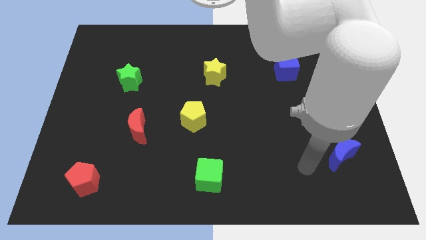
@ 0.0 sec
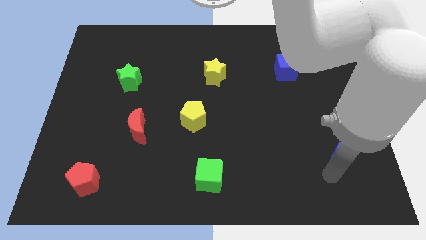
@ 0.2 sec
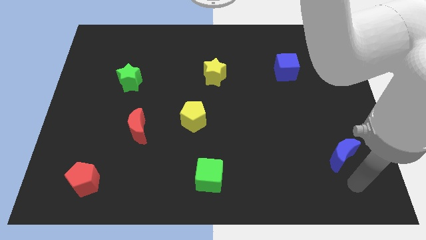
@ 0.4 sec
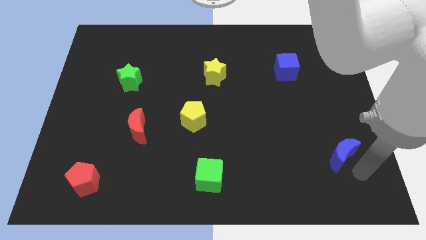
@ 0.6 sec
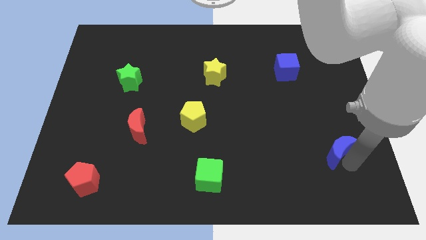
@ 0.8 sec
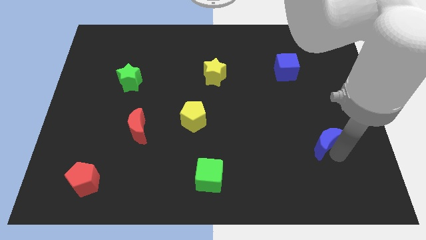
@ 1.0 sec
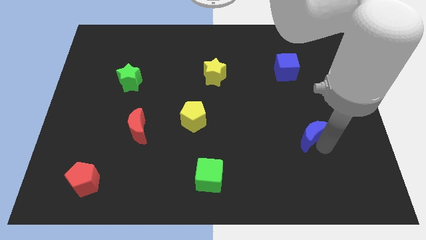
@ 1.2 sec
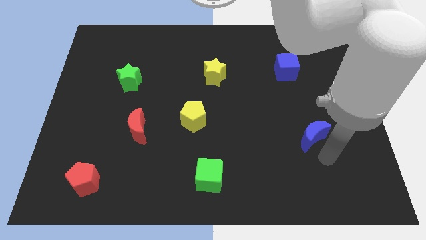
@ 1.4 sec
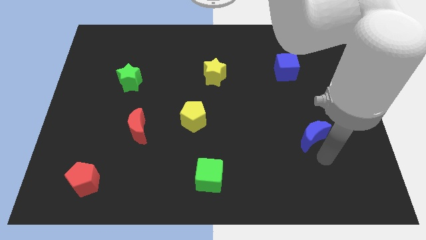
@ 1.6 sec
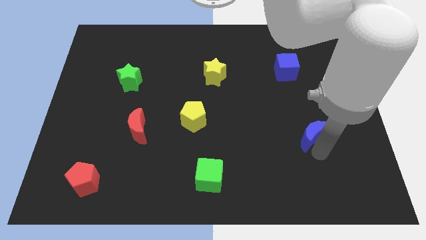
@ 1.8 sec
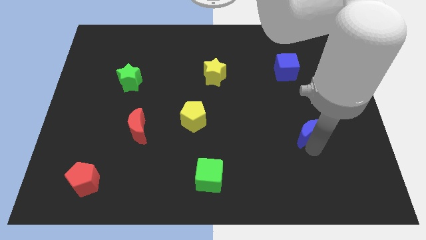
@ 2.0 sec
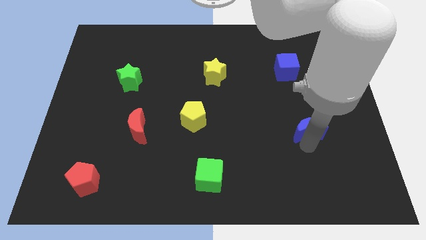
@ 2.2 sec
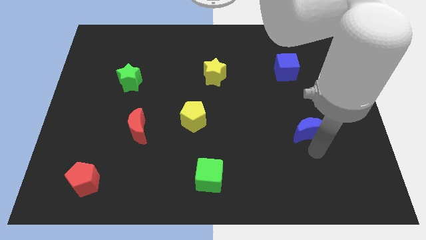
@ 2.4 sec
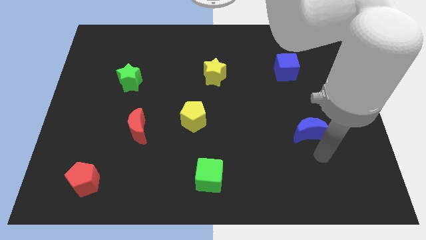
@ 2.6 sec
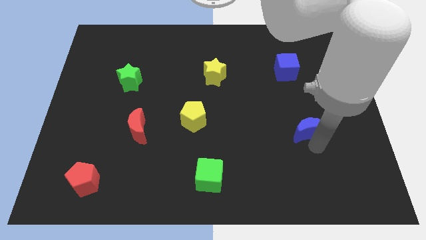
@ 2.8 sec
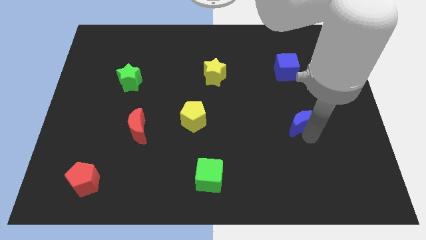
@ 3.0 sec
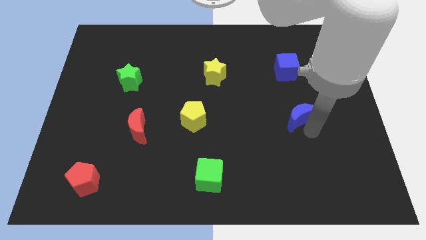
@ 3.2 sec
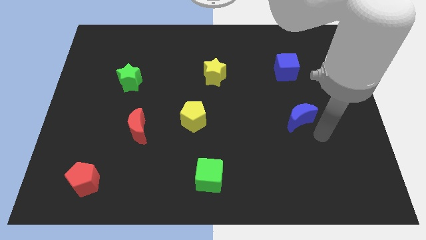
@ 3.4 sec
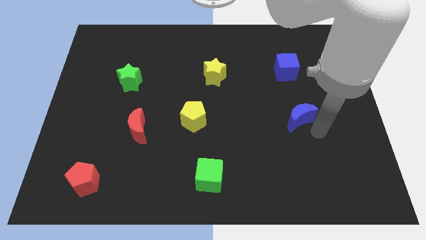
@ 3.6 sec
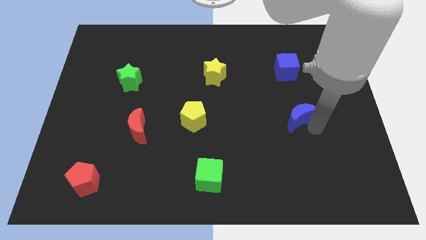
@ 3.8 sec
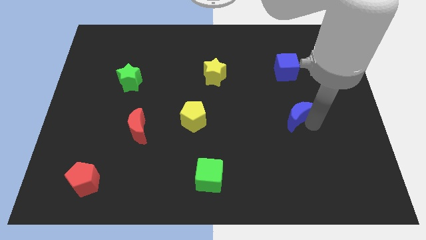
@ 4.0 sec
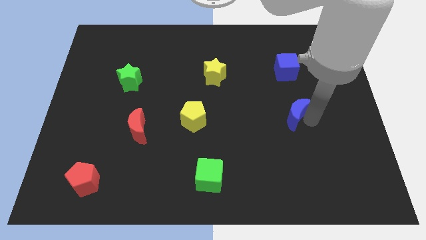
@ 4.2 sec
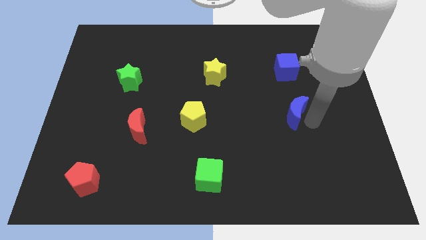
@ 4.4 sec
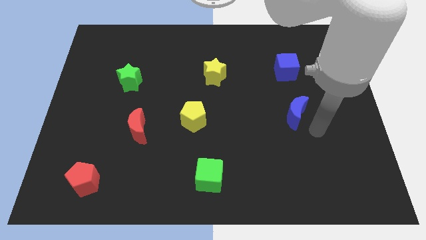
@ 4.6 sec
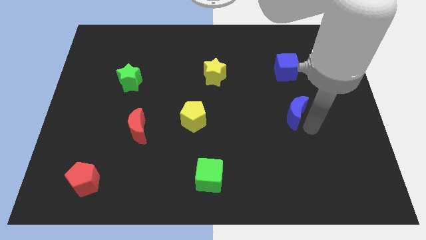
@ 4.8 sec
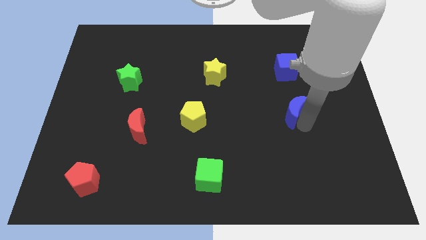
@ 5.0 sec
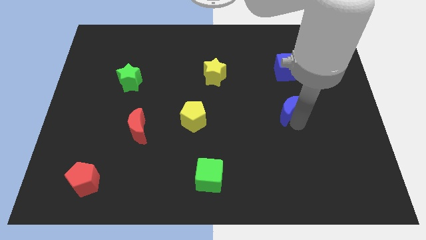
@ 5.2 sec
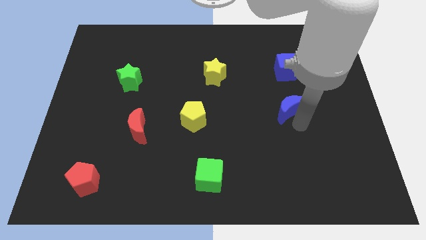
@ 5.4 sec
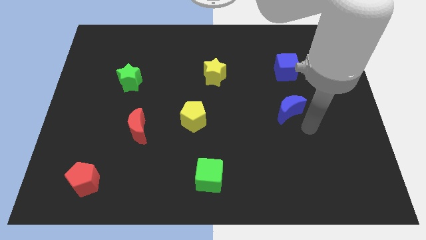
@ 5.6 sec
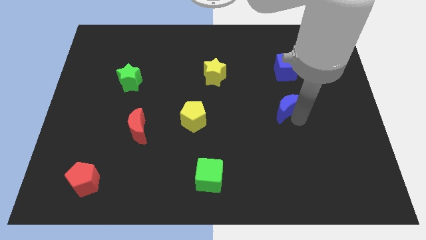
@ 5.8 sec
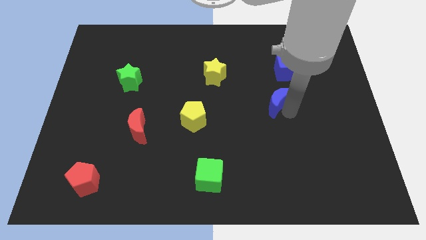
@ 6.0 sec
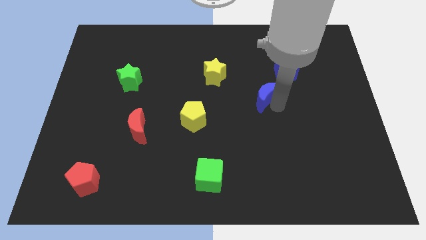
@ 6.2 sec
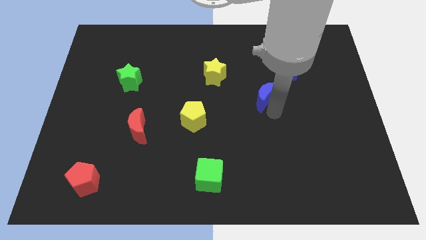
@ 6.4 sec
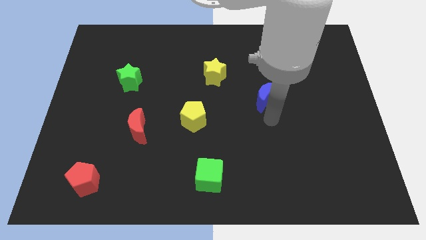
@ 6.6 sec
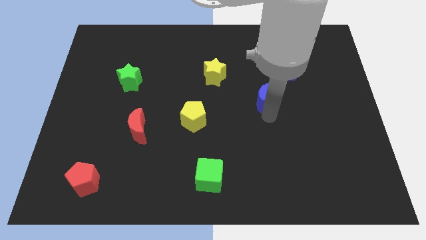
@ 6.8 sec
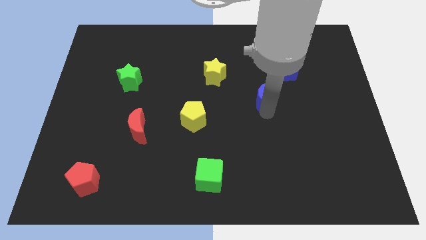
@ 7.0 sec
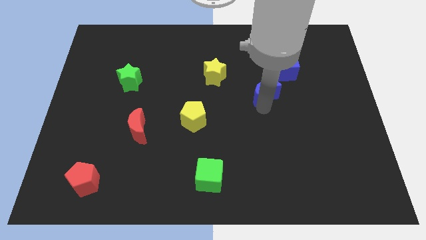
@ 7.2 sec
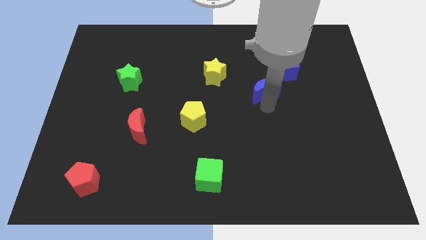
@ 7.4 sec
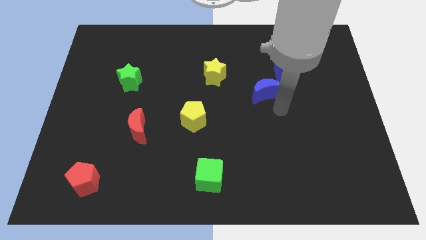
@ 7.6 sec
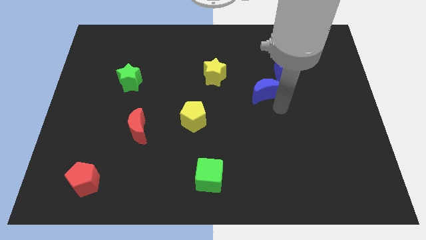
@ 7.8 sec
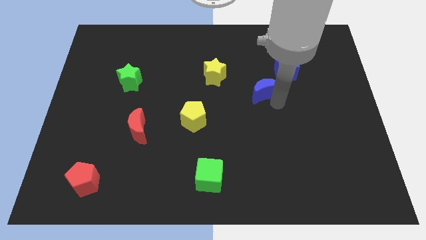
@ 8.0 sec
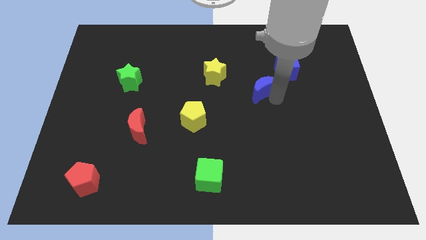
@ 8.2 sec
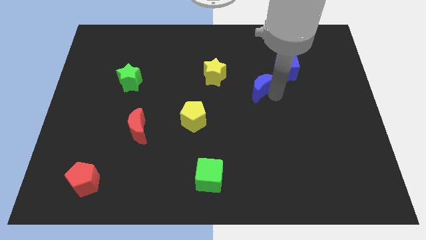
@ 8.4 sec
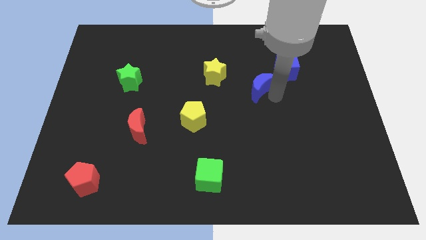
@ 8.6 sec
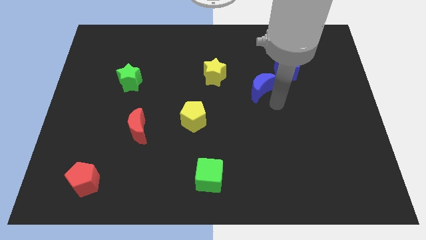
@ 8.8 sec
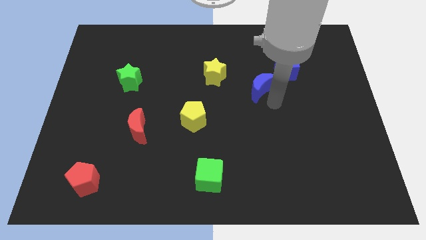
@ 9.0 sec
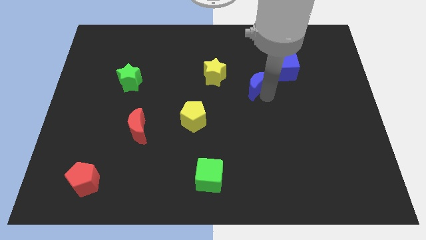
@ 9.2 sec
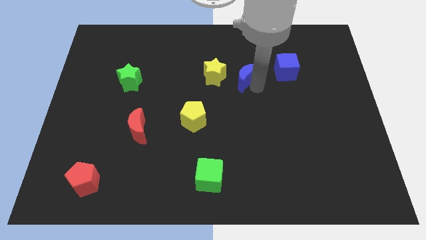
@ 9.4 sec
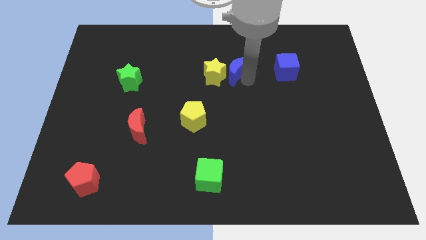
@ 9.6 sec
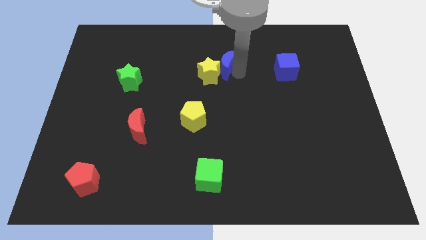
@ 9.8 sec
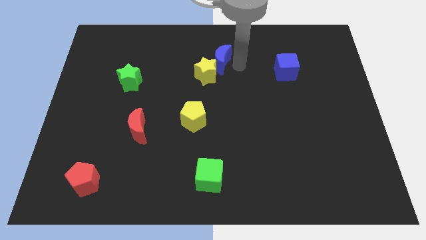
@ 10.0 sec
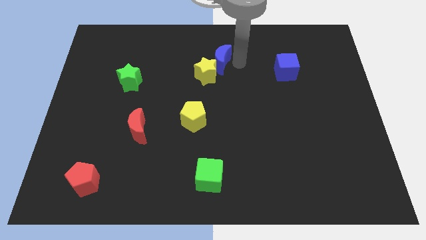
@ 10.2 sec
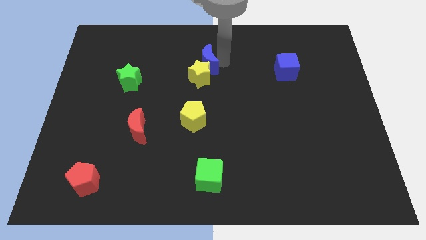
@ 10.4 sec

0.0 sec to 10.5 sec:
move the blue moon to the top left side of the yellow star

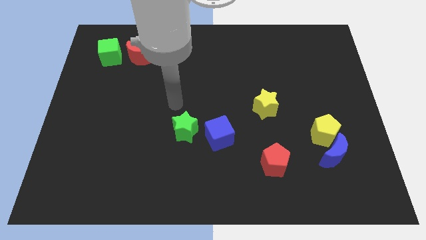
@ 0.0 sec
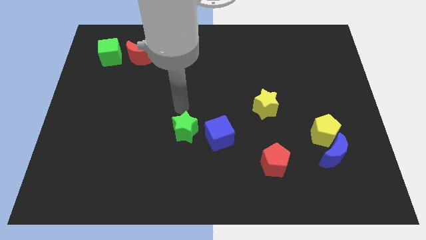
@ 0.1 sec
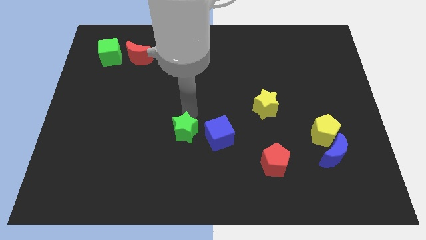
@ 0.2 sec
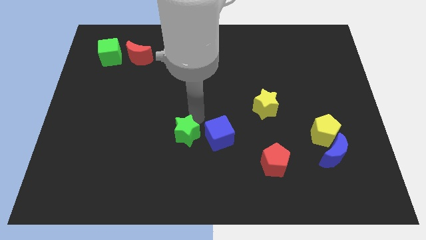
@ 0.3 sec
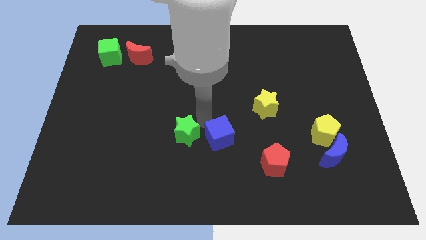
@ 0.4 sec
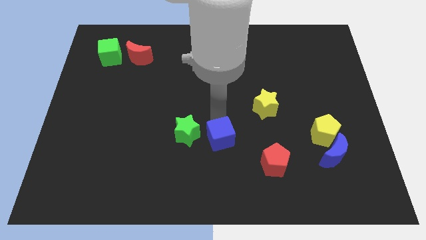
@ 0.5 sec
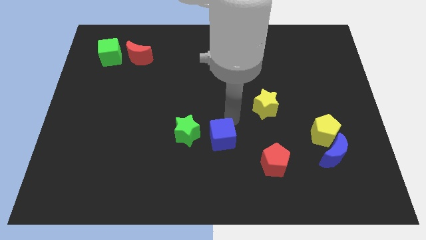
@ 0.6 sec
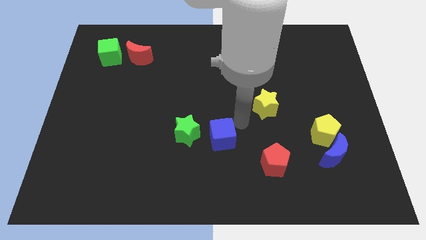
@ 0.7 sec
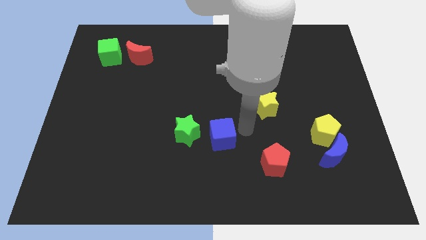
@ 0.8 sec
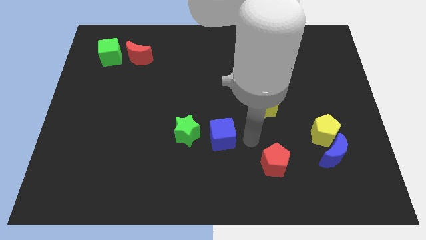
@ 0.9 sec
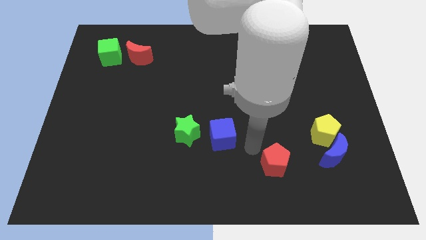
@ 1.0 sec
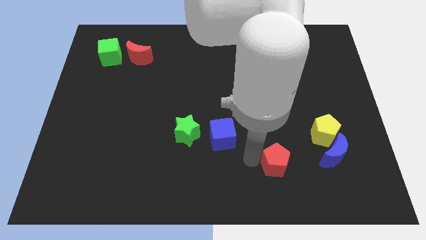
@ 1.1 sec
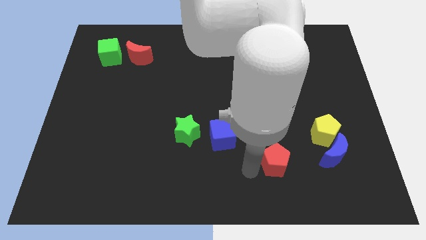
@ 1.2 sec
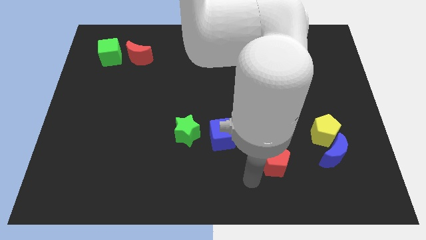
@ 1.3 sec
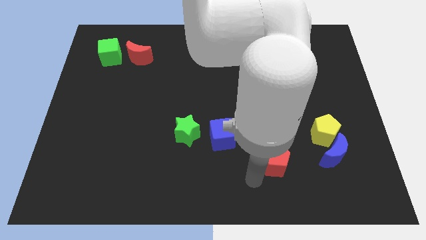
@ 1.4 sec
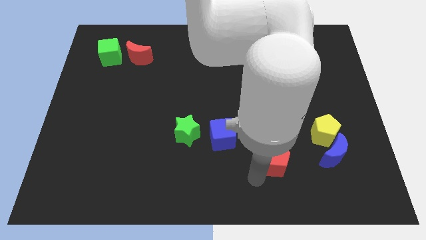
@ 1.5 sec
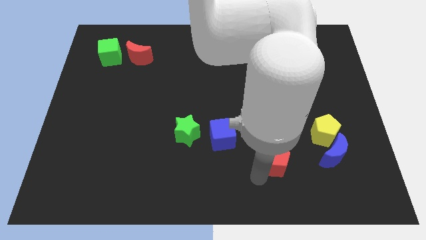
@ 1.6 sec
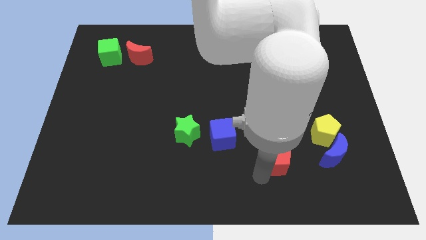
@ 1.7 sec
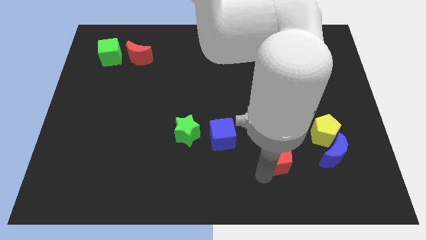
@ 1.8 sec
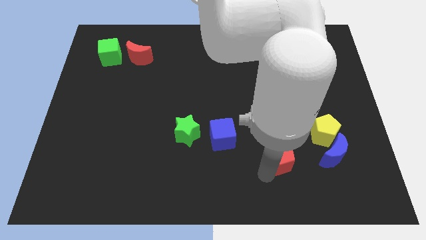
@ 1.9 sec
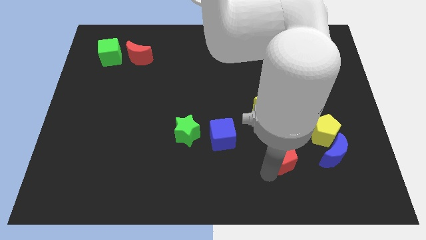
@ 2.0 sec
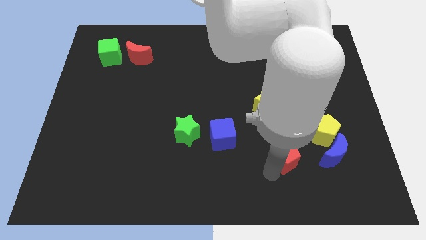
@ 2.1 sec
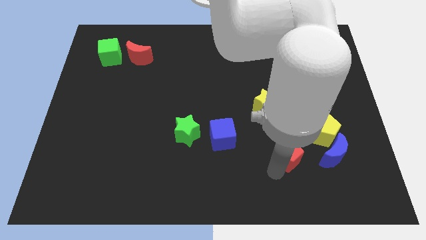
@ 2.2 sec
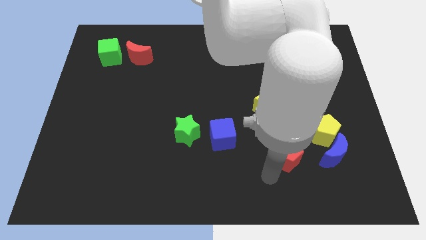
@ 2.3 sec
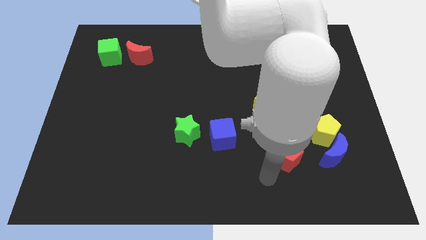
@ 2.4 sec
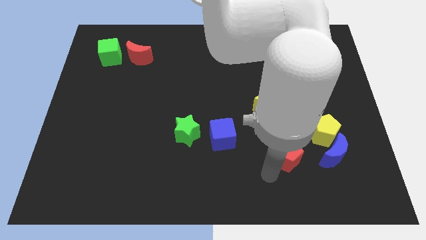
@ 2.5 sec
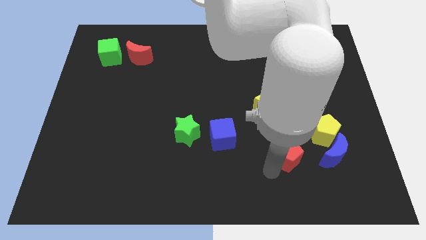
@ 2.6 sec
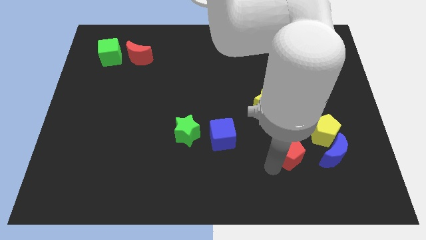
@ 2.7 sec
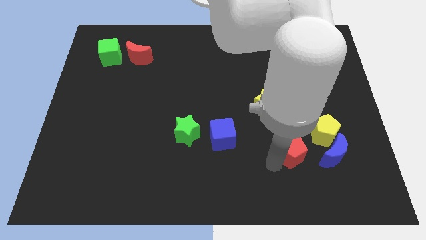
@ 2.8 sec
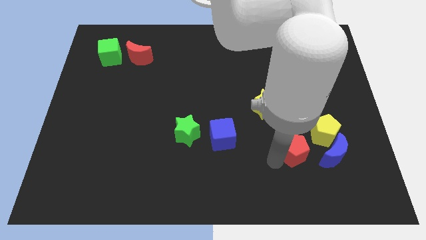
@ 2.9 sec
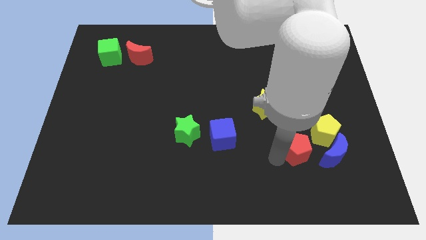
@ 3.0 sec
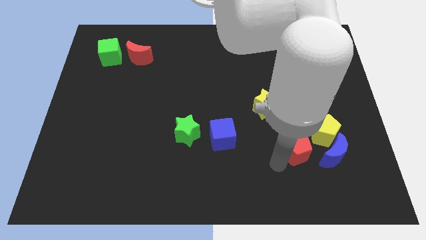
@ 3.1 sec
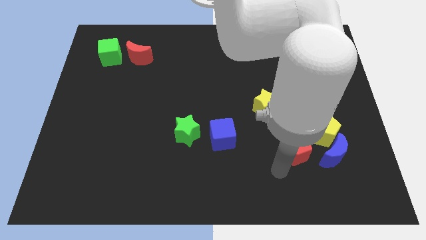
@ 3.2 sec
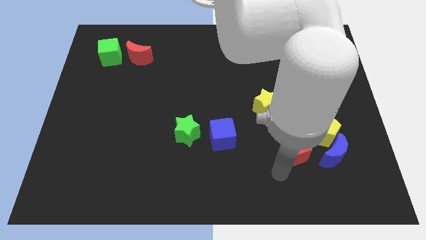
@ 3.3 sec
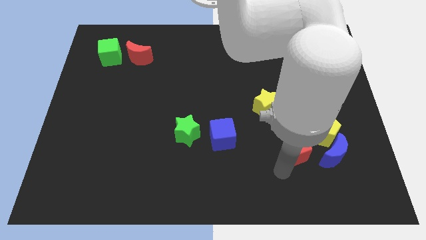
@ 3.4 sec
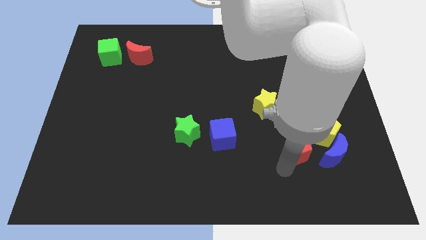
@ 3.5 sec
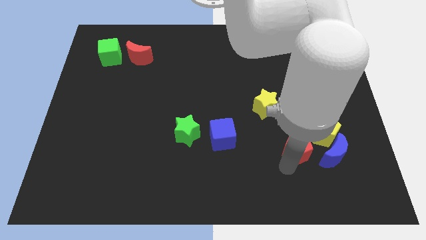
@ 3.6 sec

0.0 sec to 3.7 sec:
move the red pentagon diagonally up and to the left of the blue moon
